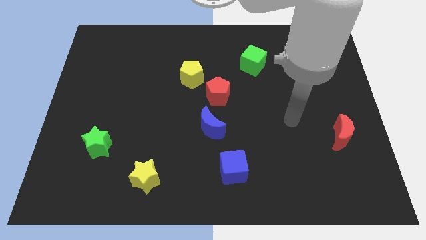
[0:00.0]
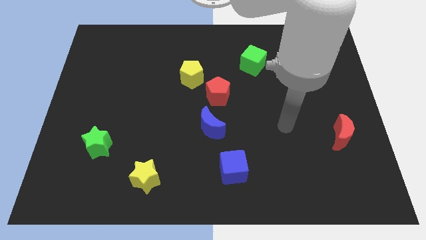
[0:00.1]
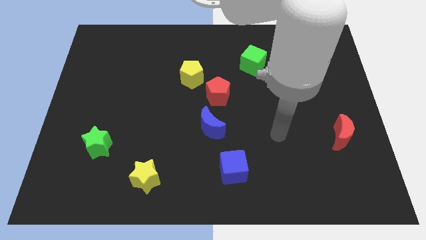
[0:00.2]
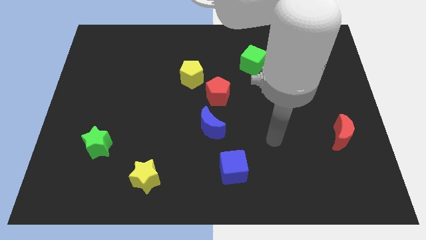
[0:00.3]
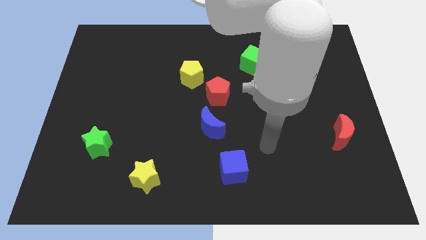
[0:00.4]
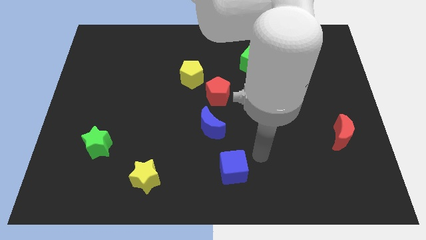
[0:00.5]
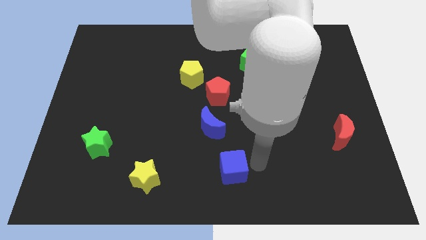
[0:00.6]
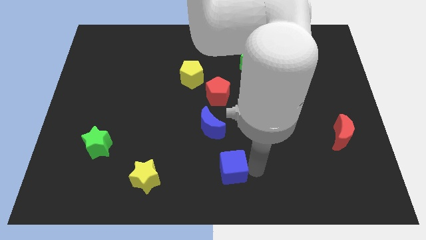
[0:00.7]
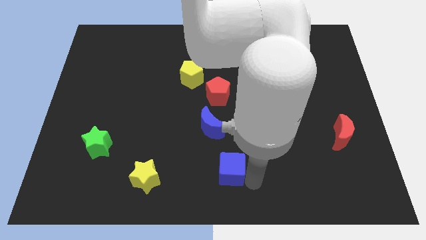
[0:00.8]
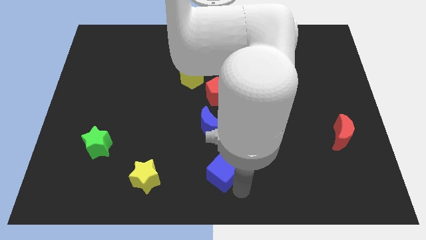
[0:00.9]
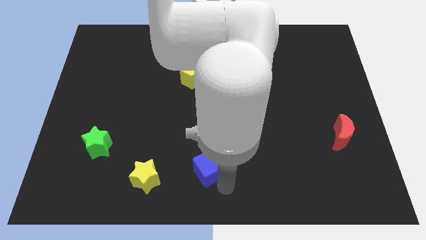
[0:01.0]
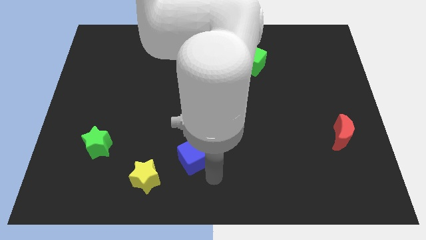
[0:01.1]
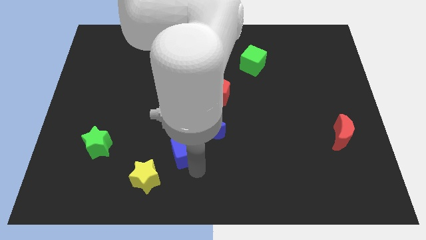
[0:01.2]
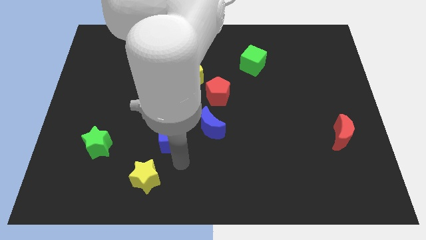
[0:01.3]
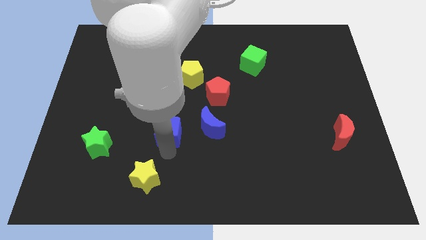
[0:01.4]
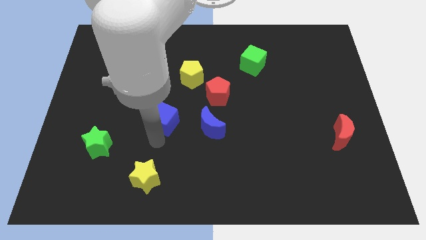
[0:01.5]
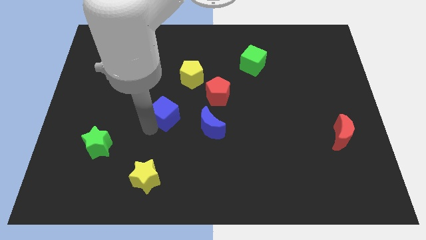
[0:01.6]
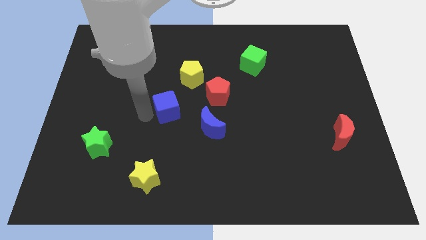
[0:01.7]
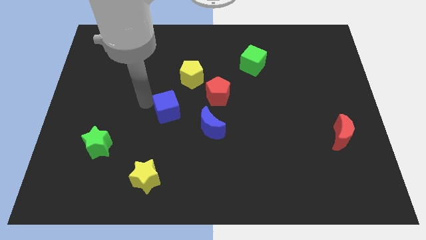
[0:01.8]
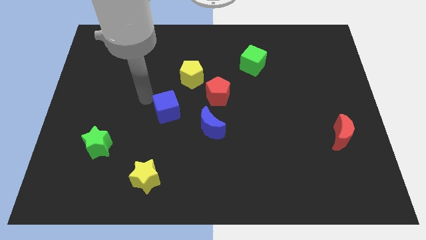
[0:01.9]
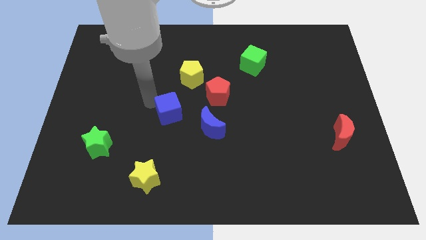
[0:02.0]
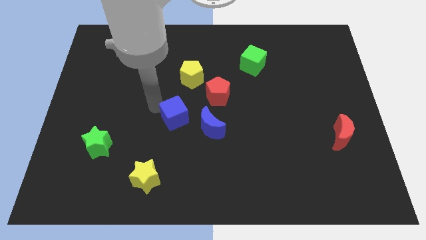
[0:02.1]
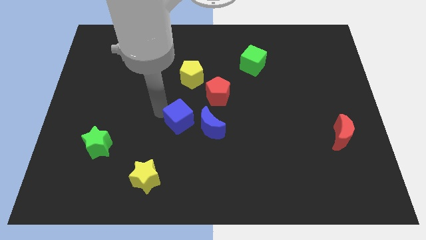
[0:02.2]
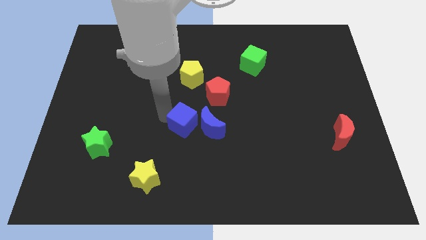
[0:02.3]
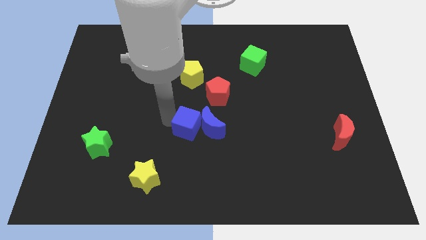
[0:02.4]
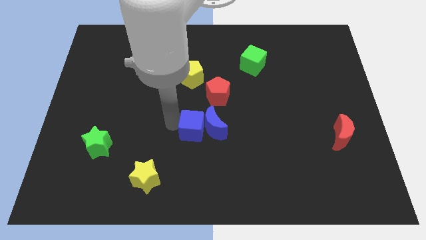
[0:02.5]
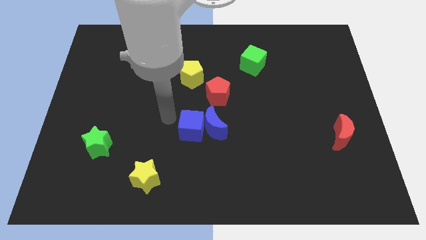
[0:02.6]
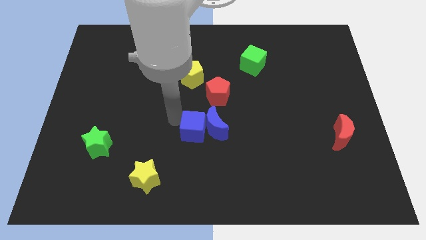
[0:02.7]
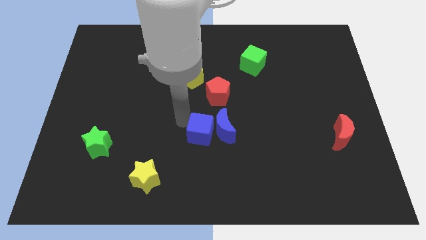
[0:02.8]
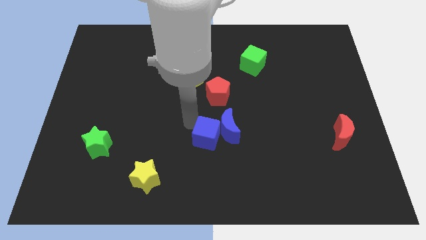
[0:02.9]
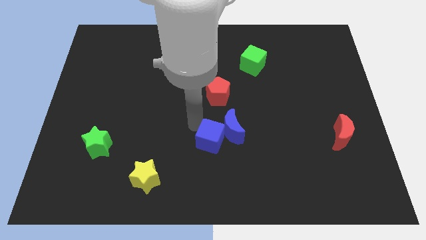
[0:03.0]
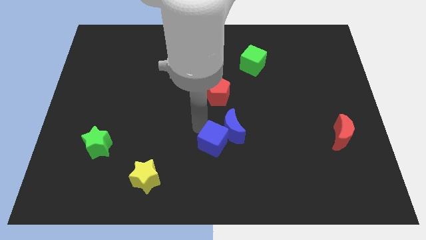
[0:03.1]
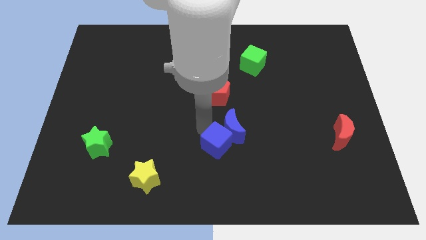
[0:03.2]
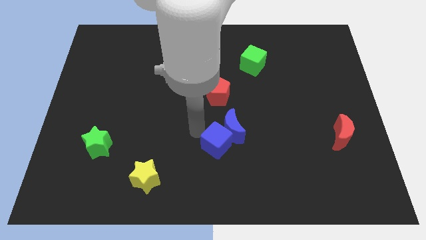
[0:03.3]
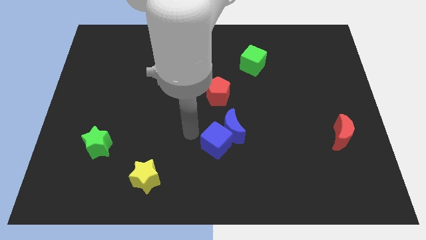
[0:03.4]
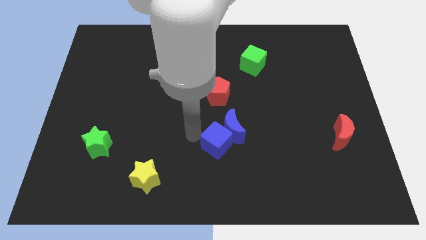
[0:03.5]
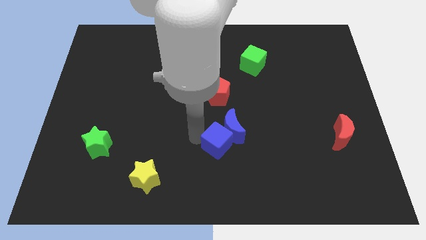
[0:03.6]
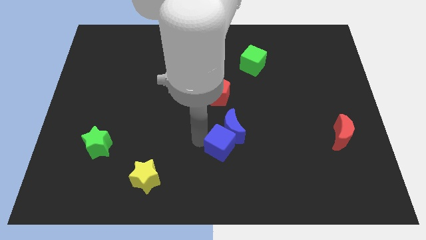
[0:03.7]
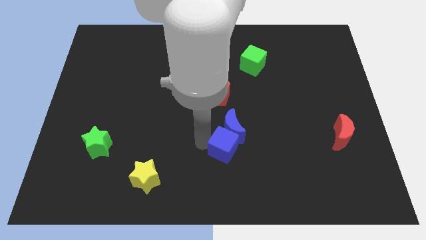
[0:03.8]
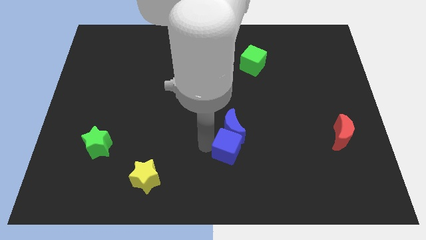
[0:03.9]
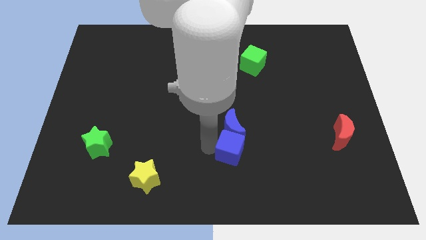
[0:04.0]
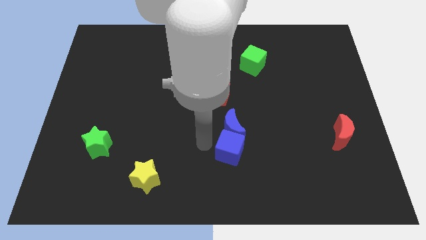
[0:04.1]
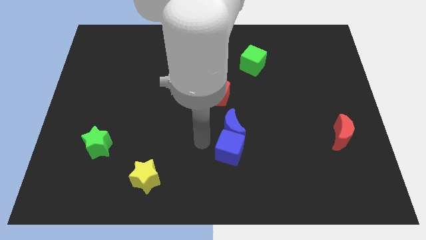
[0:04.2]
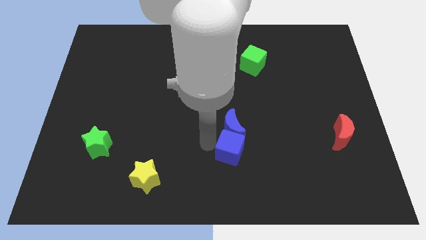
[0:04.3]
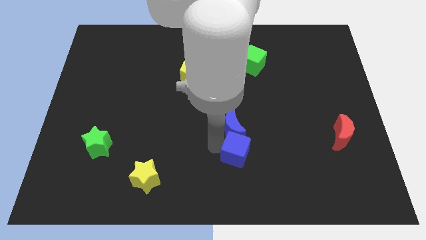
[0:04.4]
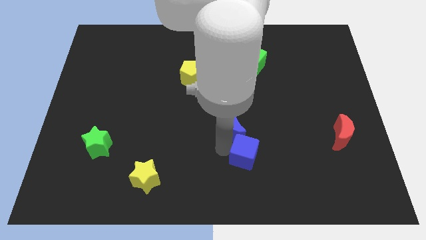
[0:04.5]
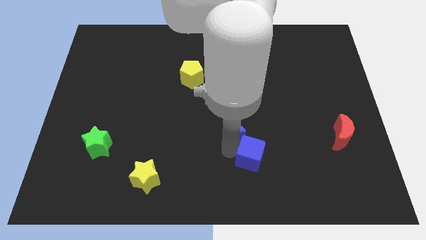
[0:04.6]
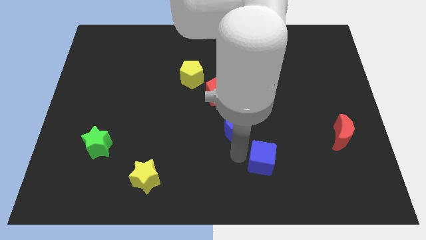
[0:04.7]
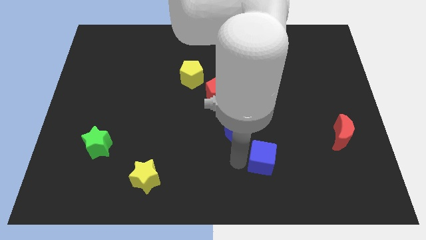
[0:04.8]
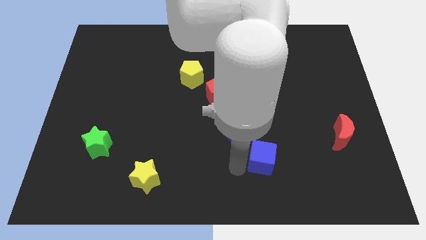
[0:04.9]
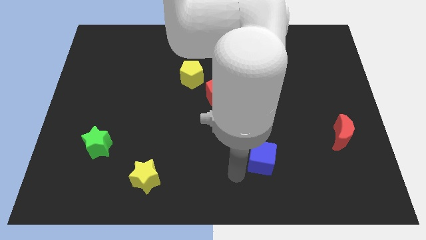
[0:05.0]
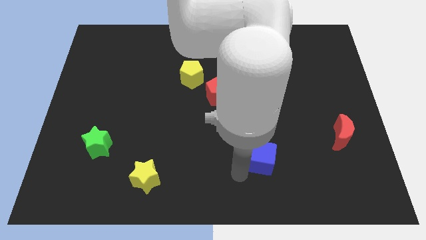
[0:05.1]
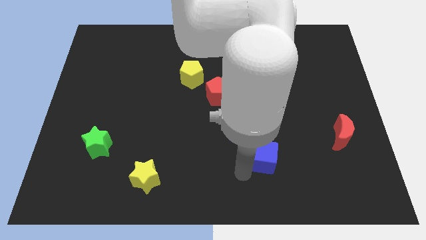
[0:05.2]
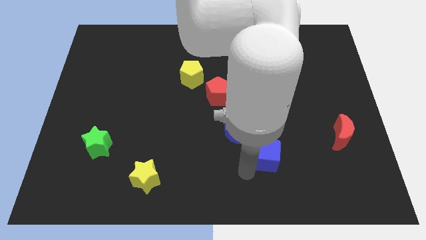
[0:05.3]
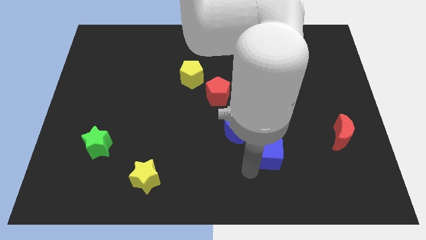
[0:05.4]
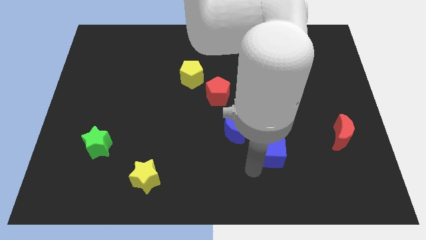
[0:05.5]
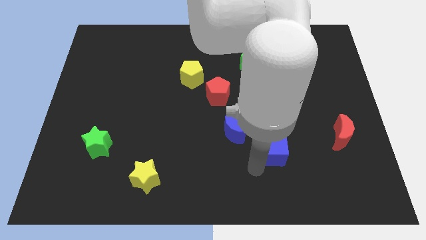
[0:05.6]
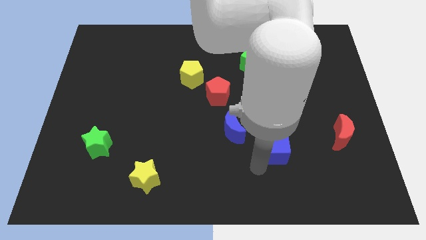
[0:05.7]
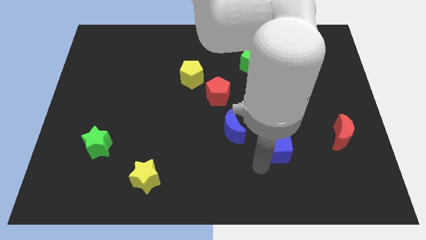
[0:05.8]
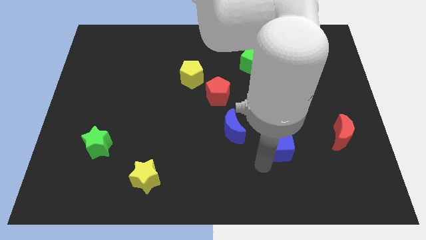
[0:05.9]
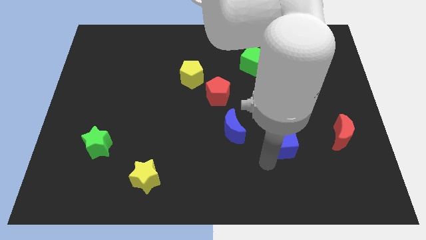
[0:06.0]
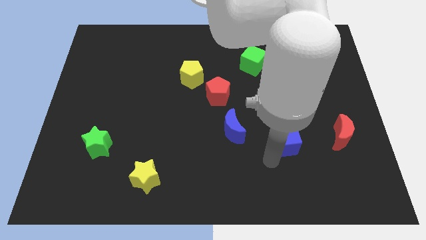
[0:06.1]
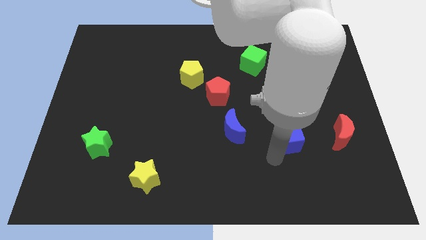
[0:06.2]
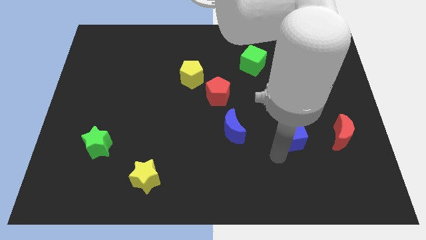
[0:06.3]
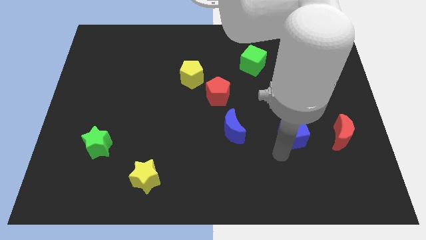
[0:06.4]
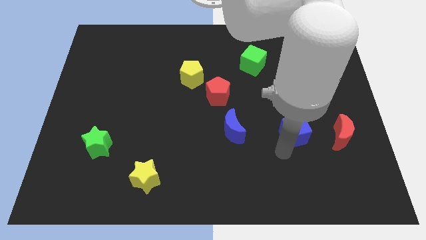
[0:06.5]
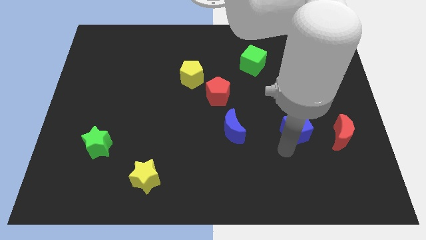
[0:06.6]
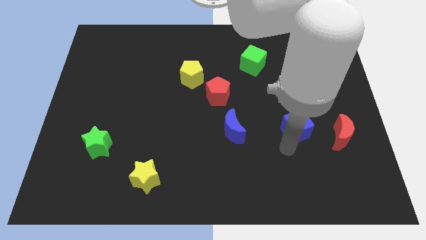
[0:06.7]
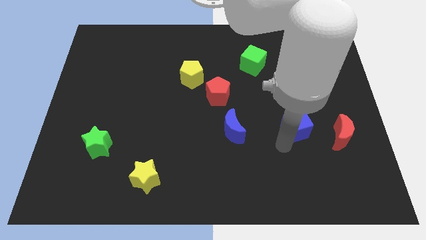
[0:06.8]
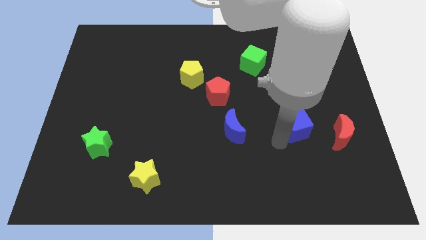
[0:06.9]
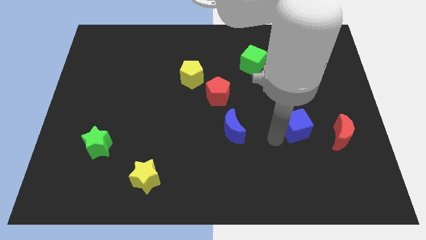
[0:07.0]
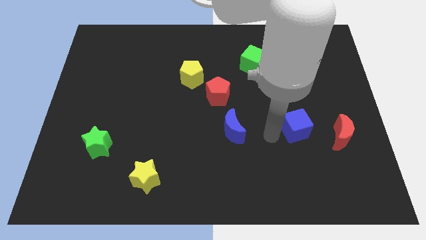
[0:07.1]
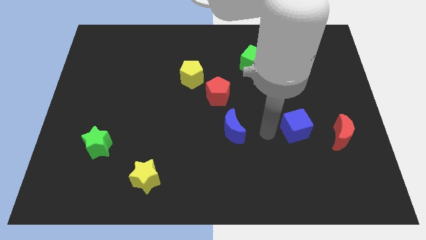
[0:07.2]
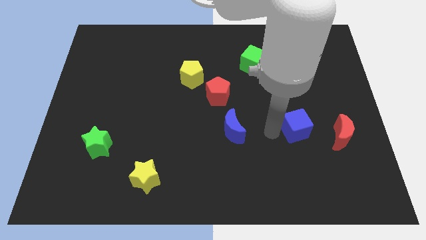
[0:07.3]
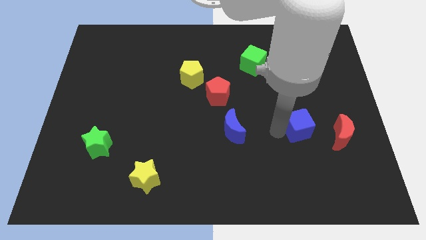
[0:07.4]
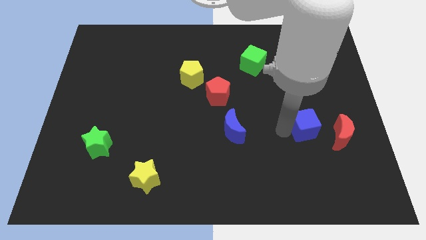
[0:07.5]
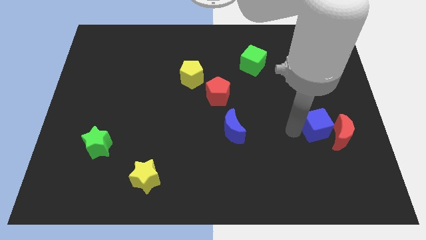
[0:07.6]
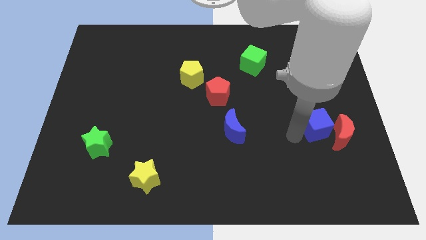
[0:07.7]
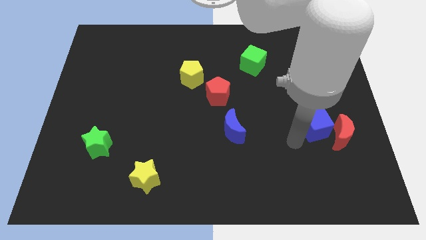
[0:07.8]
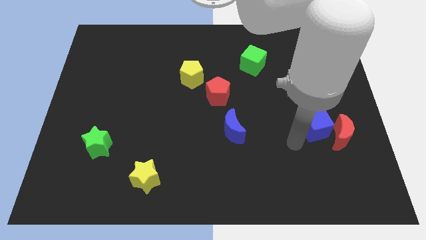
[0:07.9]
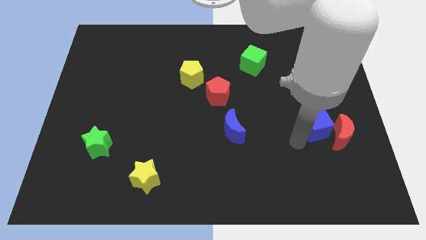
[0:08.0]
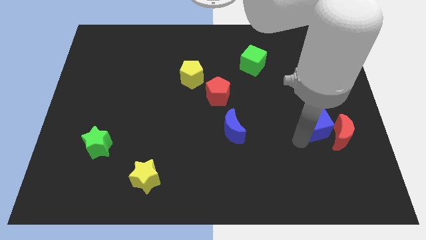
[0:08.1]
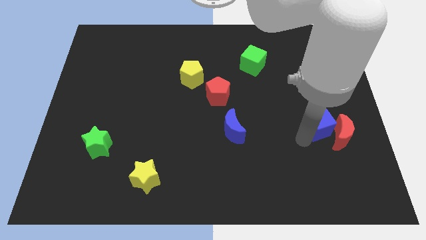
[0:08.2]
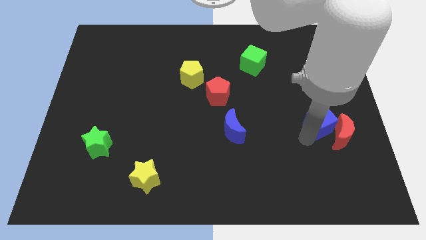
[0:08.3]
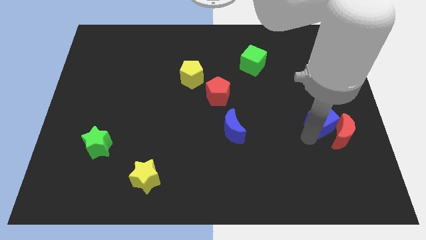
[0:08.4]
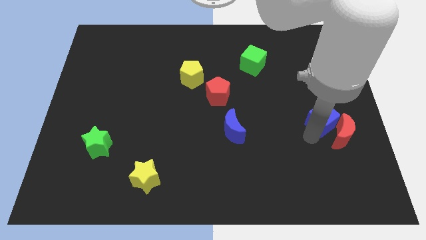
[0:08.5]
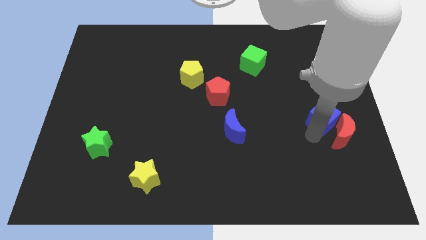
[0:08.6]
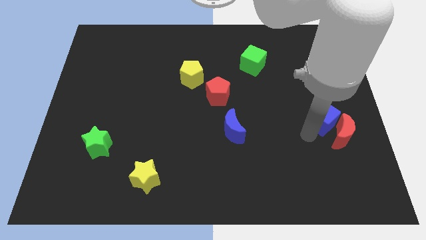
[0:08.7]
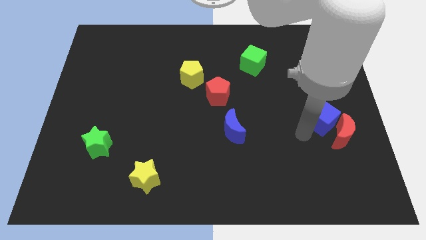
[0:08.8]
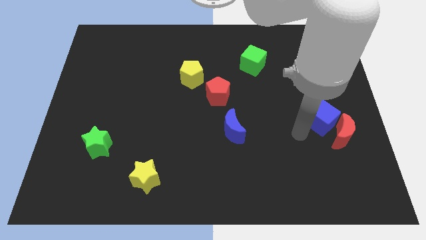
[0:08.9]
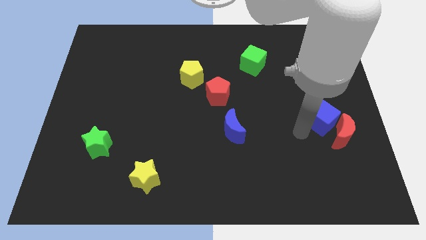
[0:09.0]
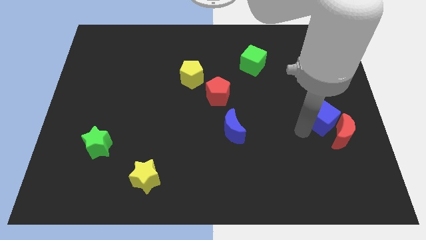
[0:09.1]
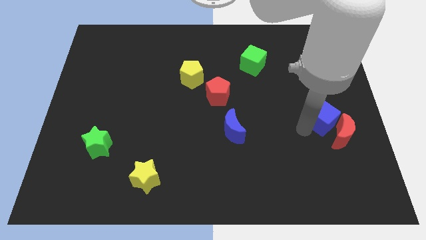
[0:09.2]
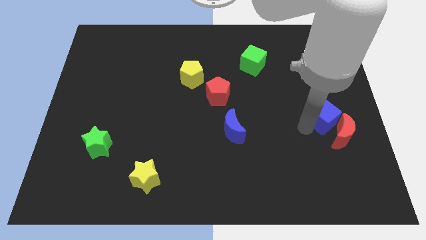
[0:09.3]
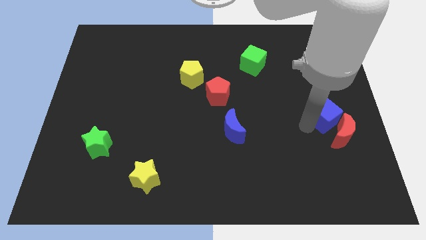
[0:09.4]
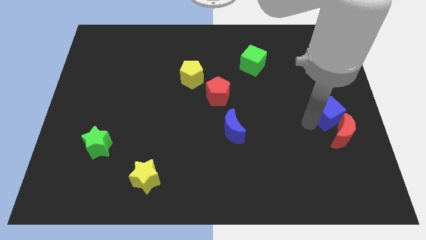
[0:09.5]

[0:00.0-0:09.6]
push the blue cube to the right side of the board
